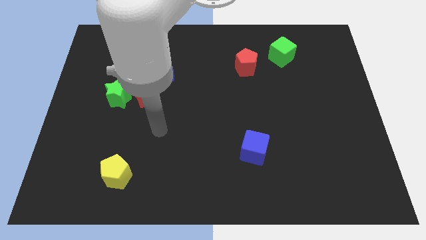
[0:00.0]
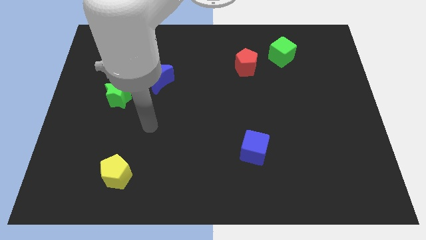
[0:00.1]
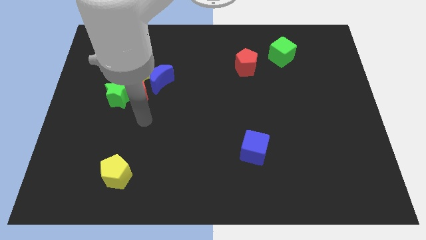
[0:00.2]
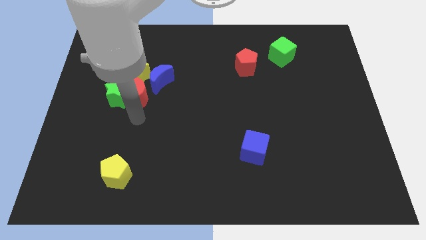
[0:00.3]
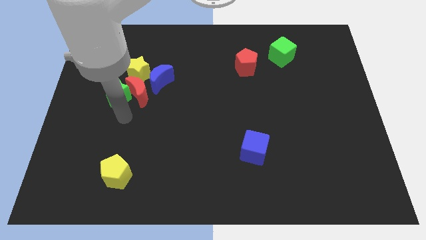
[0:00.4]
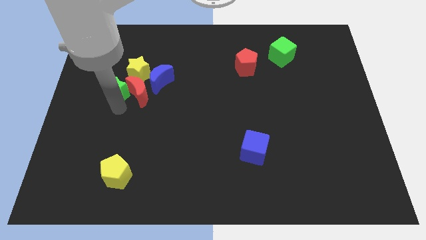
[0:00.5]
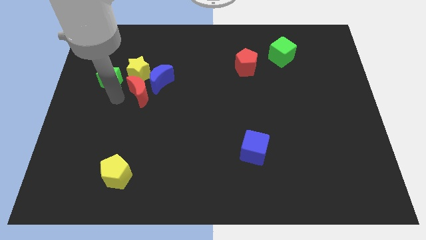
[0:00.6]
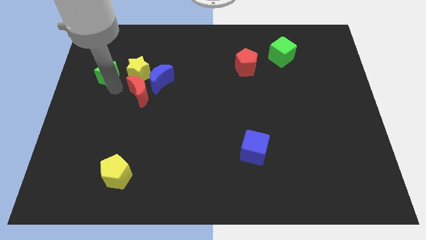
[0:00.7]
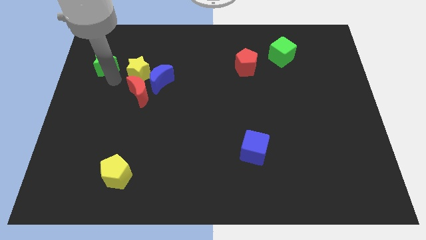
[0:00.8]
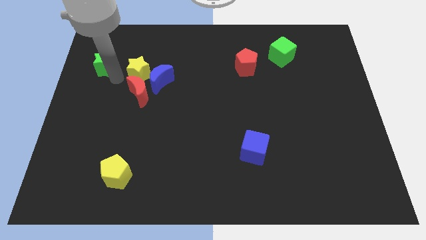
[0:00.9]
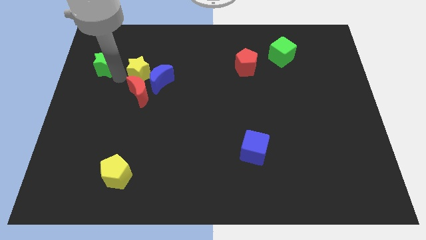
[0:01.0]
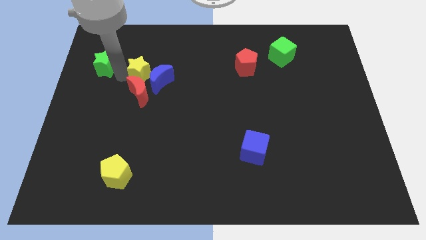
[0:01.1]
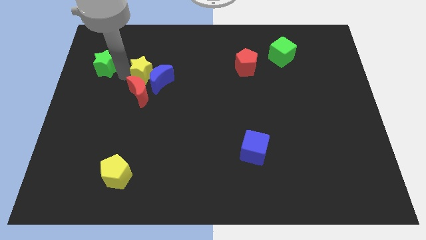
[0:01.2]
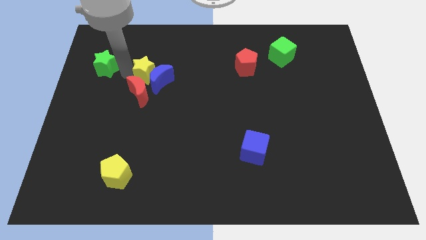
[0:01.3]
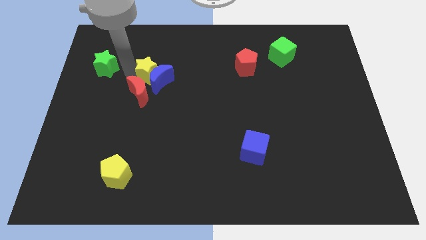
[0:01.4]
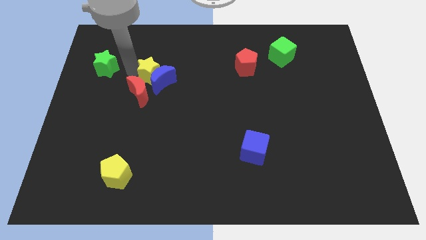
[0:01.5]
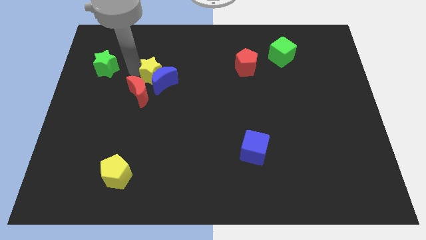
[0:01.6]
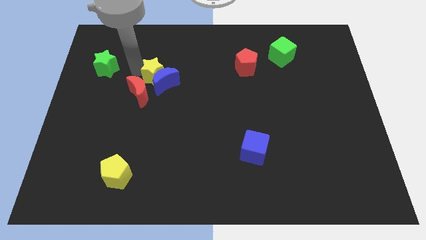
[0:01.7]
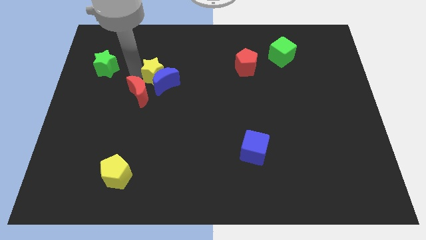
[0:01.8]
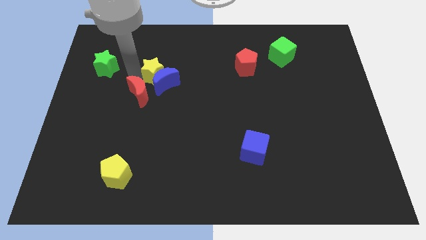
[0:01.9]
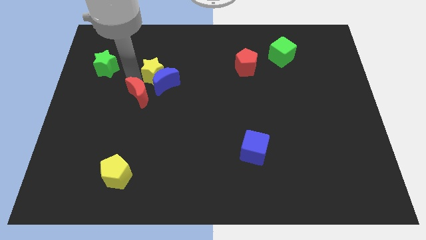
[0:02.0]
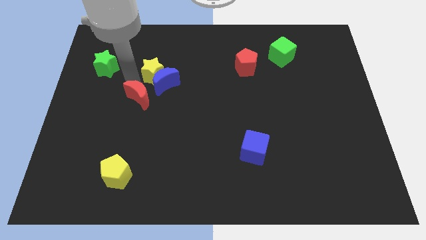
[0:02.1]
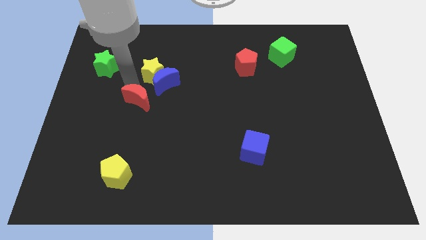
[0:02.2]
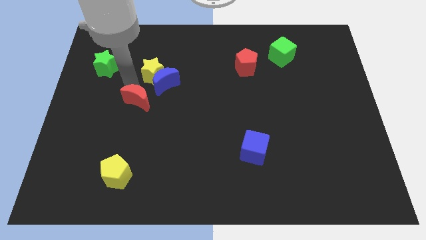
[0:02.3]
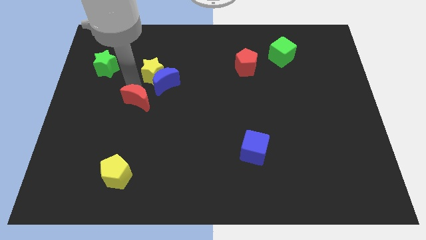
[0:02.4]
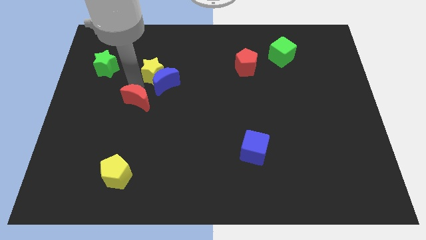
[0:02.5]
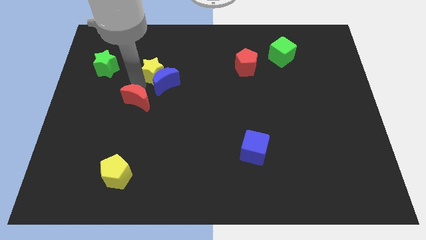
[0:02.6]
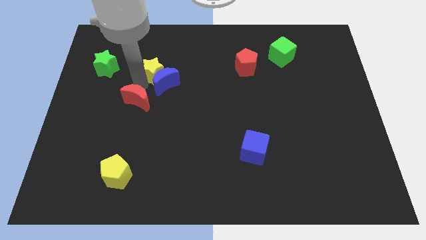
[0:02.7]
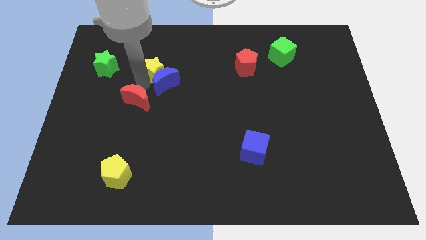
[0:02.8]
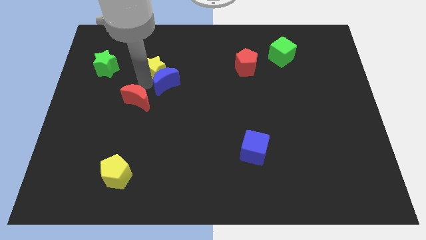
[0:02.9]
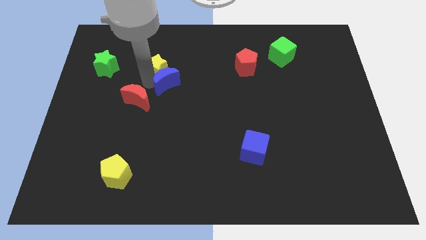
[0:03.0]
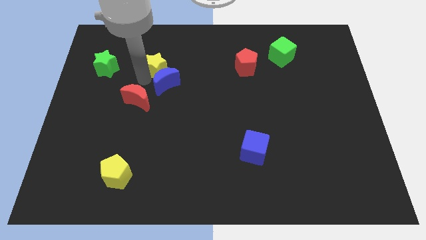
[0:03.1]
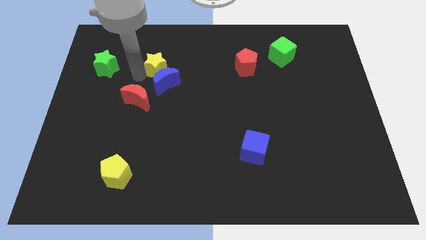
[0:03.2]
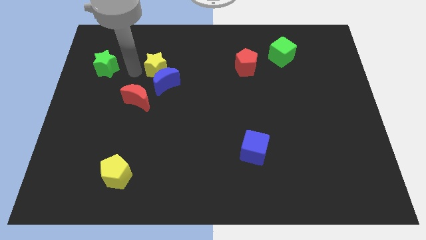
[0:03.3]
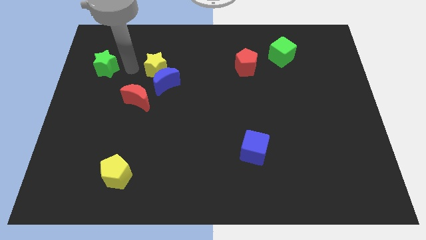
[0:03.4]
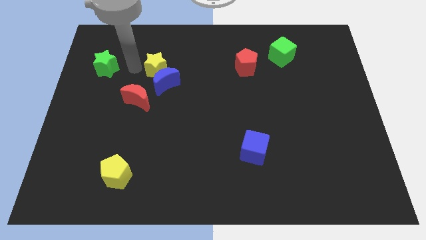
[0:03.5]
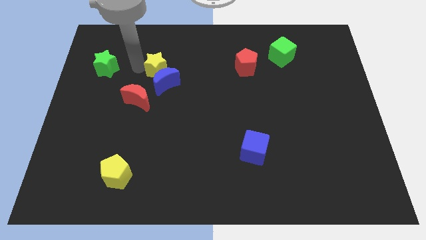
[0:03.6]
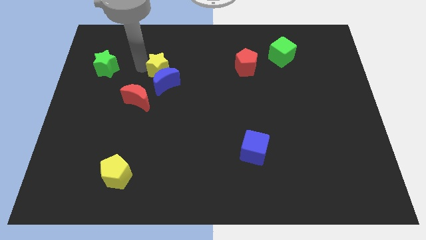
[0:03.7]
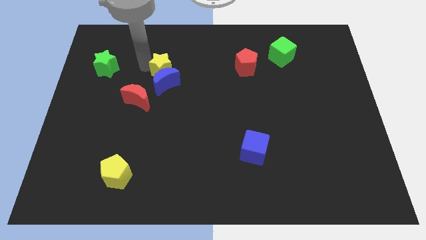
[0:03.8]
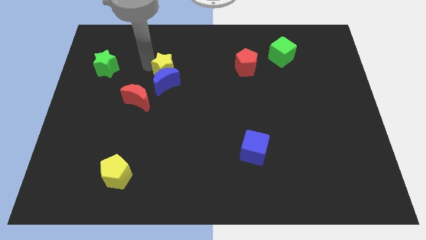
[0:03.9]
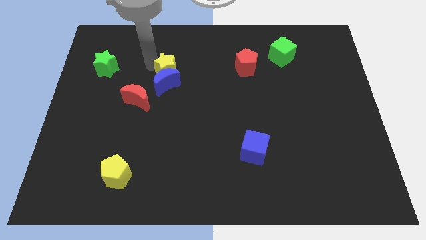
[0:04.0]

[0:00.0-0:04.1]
move the yellow star a little right

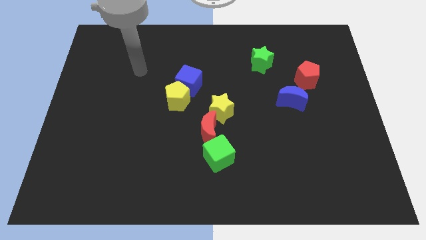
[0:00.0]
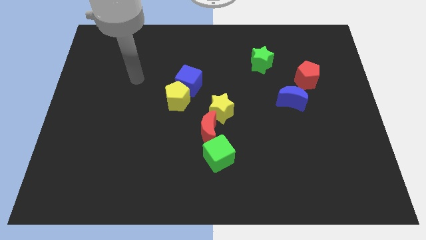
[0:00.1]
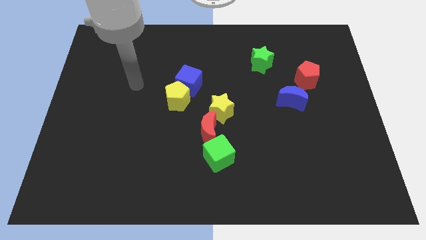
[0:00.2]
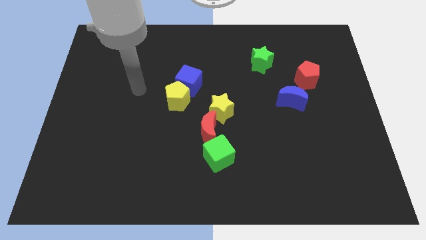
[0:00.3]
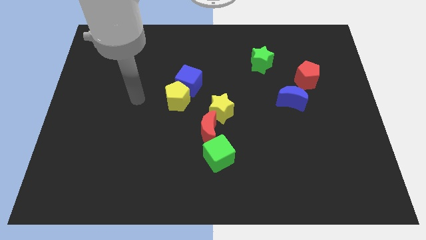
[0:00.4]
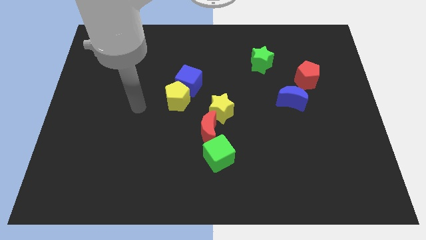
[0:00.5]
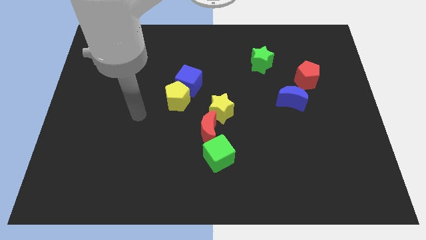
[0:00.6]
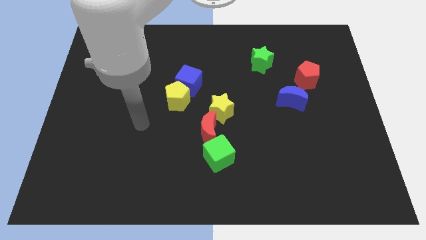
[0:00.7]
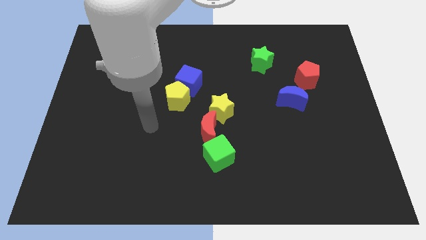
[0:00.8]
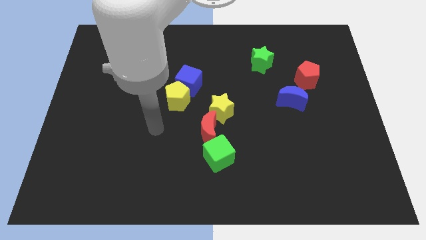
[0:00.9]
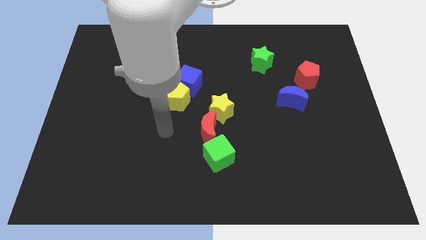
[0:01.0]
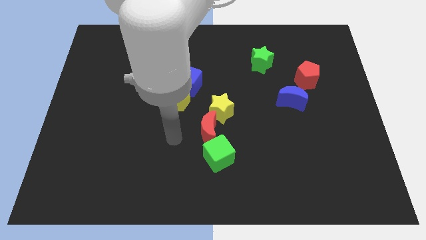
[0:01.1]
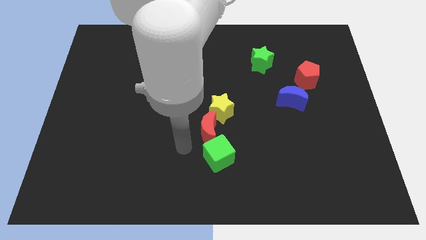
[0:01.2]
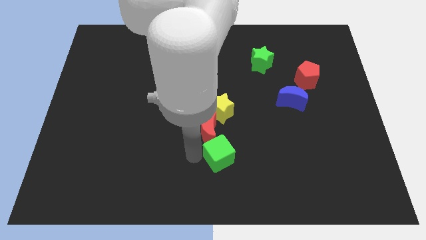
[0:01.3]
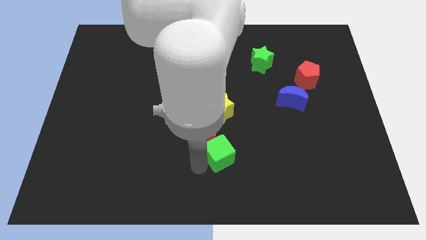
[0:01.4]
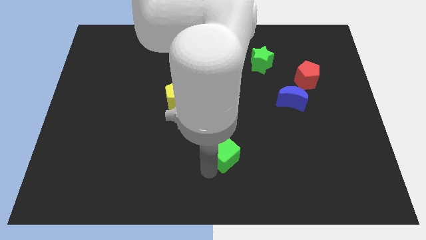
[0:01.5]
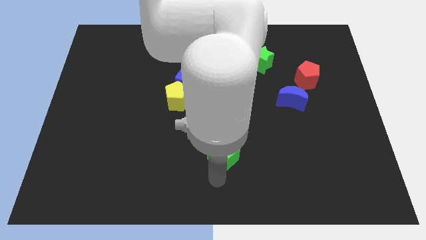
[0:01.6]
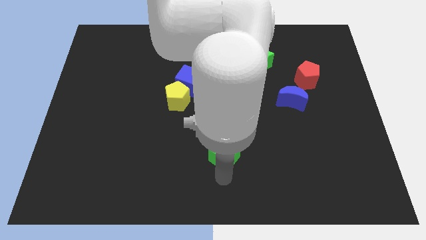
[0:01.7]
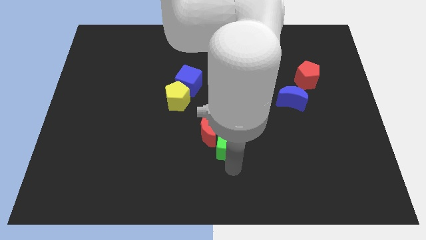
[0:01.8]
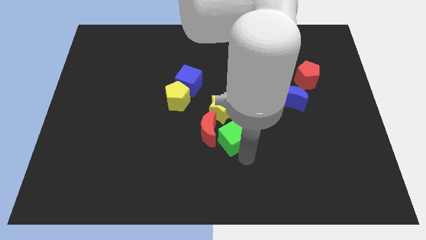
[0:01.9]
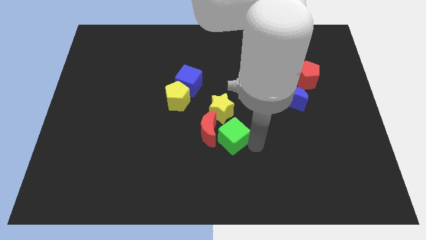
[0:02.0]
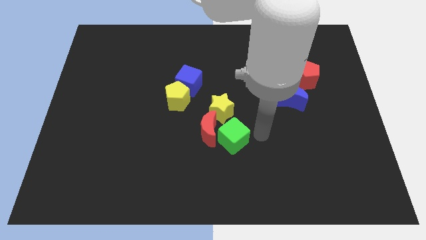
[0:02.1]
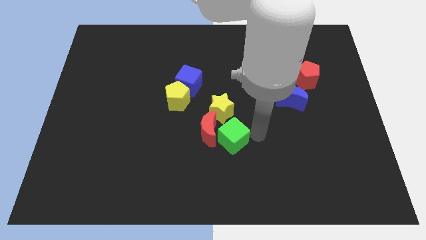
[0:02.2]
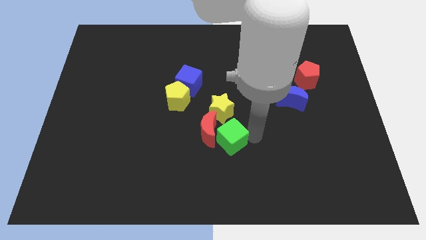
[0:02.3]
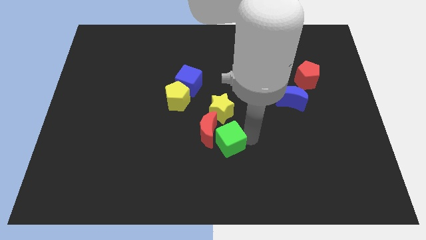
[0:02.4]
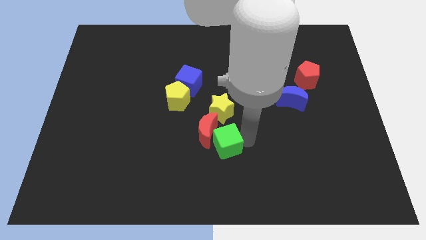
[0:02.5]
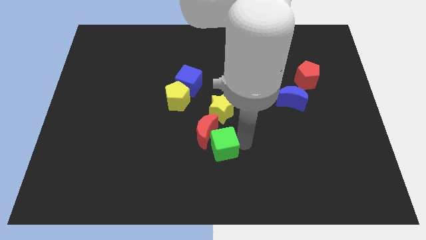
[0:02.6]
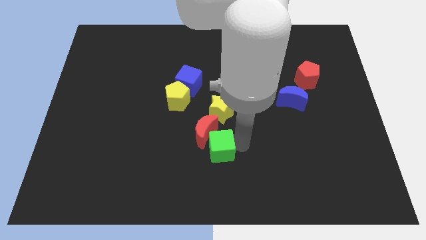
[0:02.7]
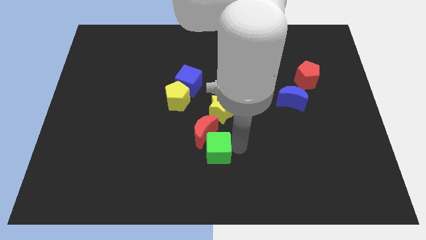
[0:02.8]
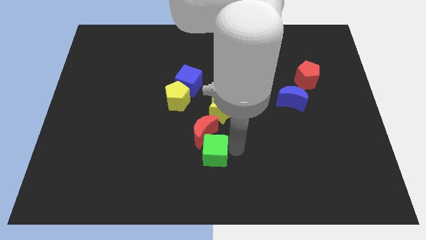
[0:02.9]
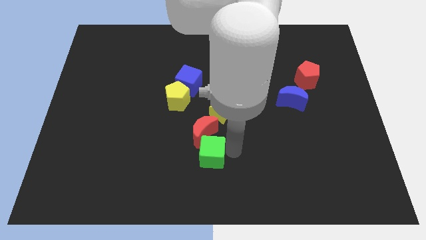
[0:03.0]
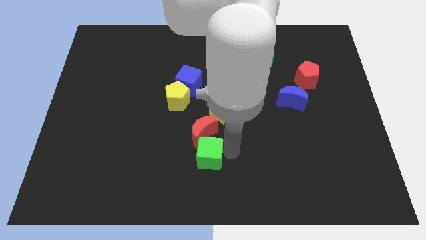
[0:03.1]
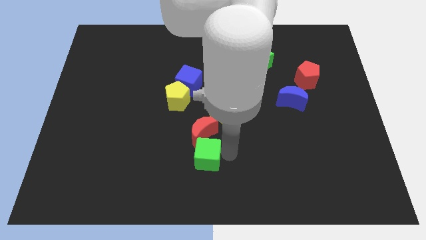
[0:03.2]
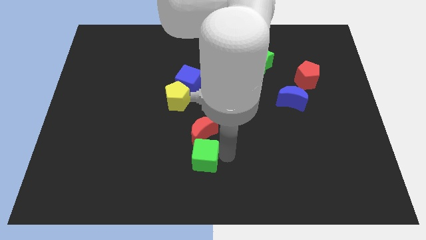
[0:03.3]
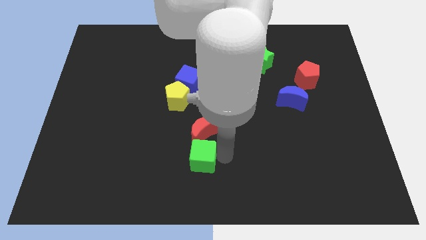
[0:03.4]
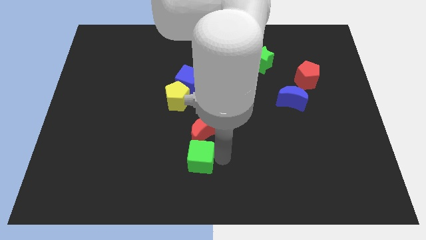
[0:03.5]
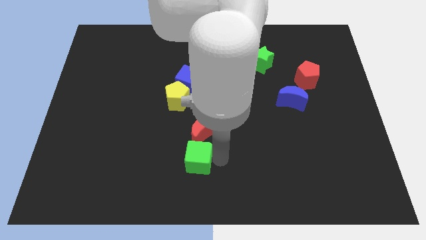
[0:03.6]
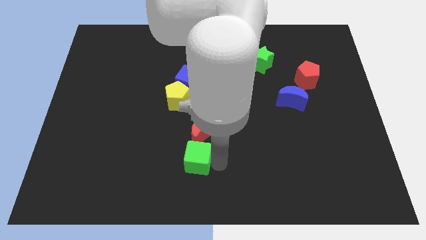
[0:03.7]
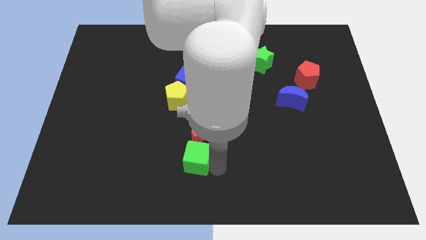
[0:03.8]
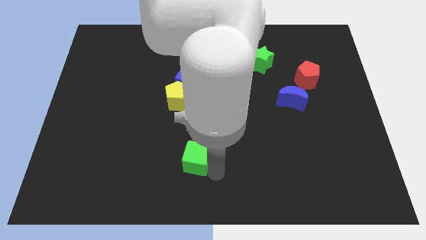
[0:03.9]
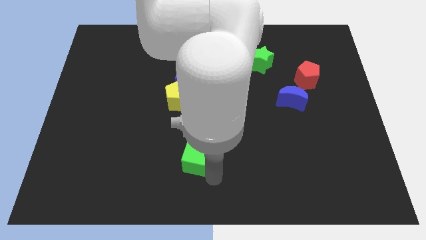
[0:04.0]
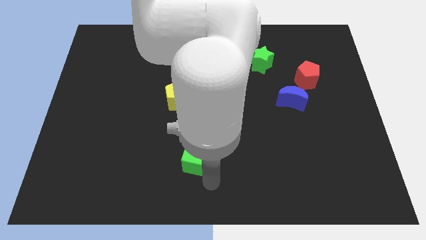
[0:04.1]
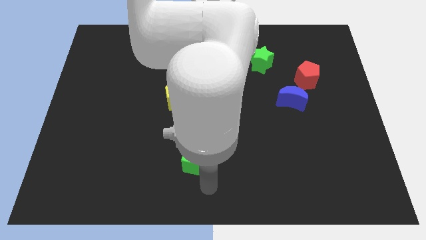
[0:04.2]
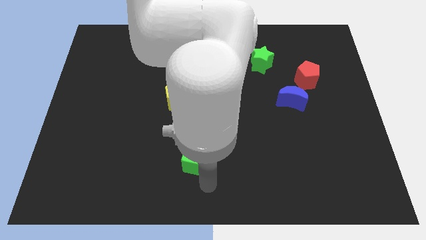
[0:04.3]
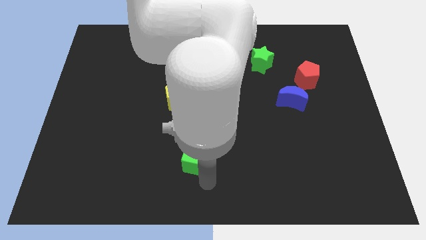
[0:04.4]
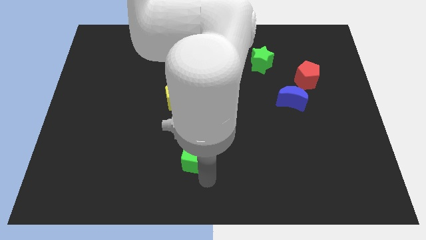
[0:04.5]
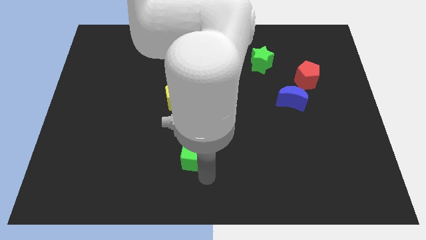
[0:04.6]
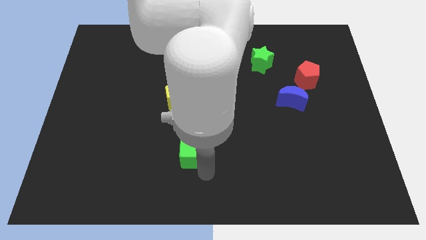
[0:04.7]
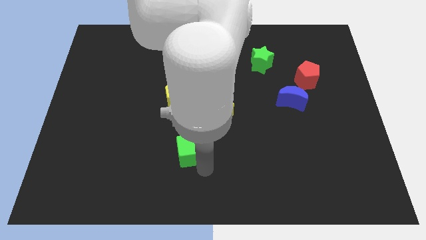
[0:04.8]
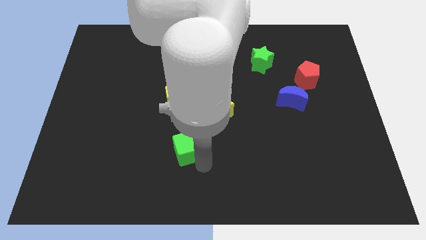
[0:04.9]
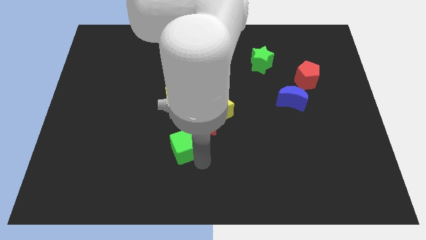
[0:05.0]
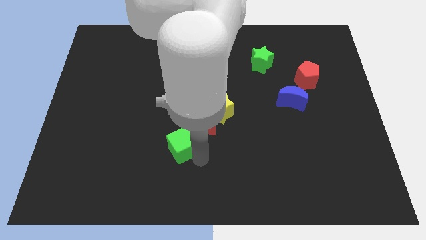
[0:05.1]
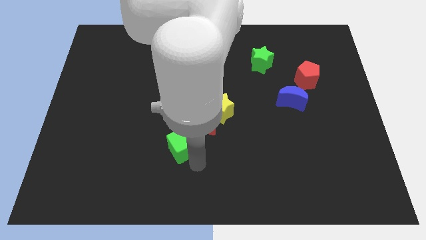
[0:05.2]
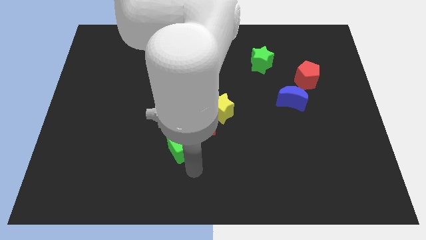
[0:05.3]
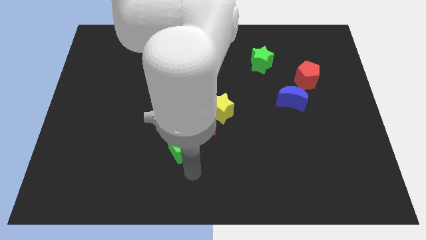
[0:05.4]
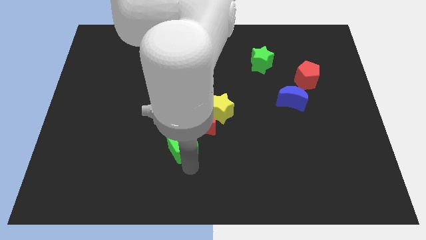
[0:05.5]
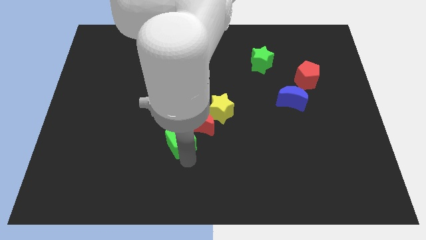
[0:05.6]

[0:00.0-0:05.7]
slightly push the green cube diagonally upwards and to the left
